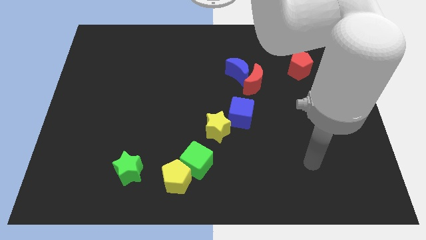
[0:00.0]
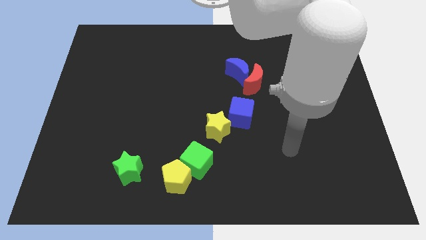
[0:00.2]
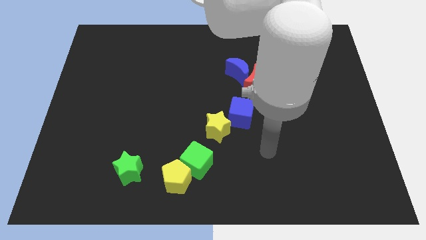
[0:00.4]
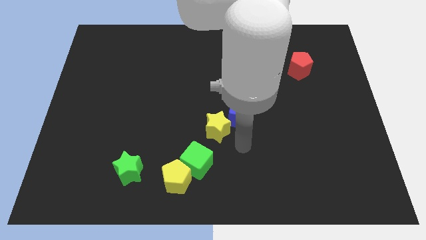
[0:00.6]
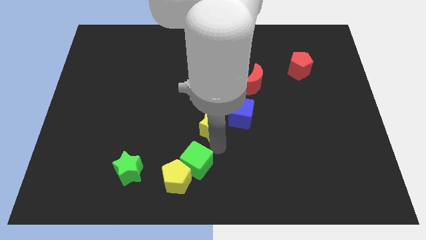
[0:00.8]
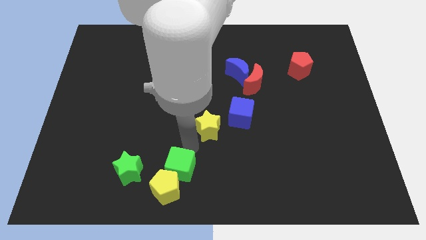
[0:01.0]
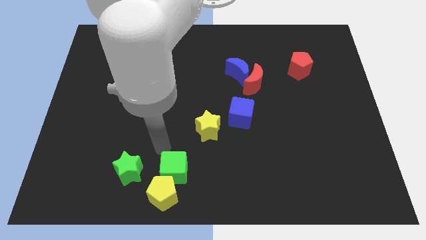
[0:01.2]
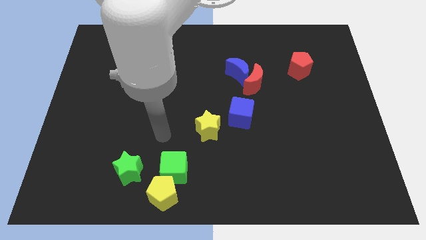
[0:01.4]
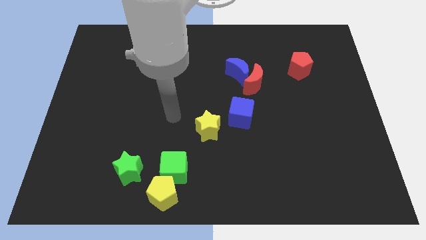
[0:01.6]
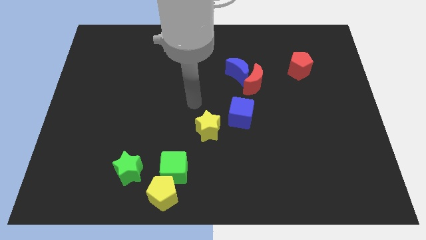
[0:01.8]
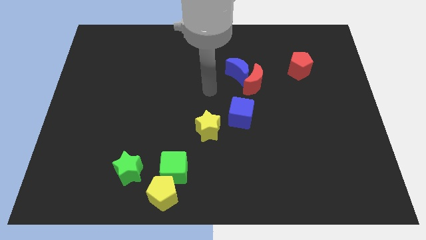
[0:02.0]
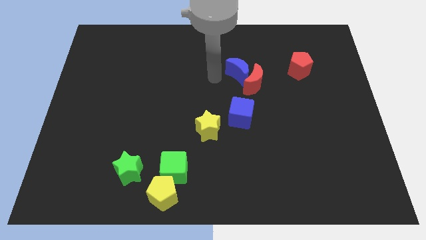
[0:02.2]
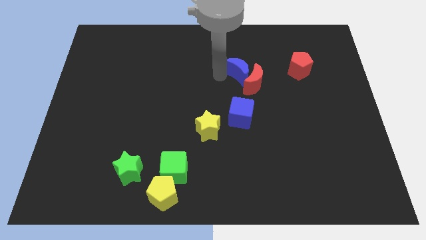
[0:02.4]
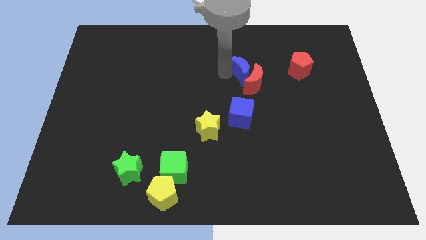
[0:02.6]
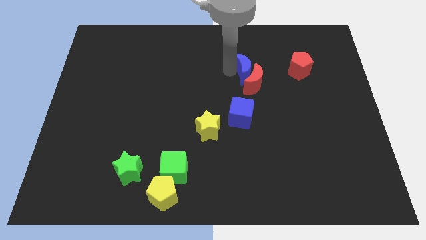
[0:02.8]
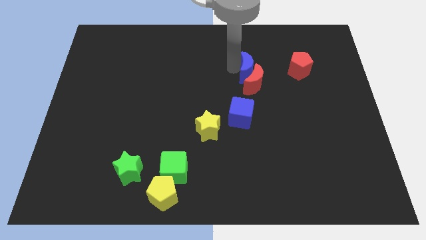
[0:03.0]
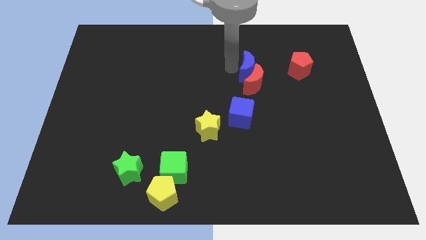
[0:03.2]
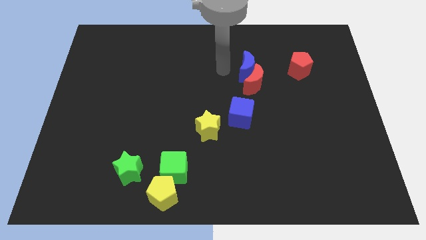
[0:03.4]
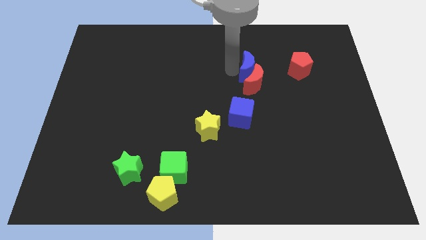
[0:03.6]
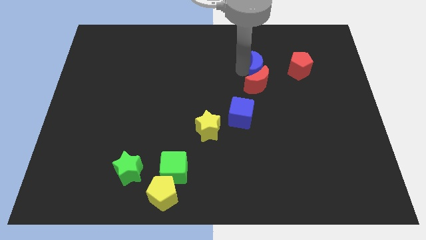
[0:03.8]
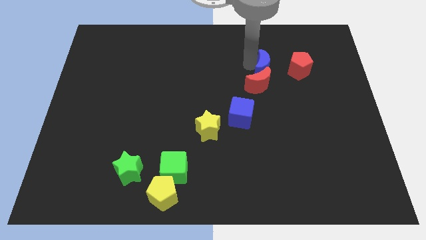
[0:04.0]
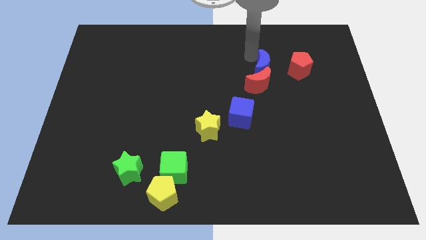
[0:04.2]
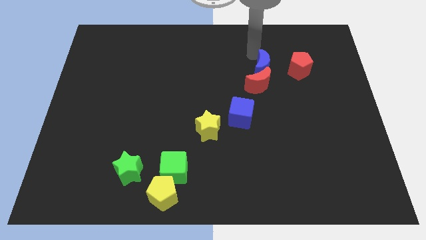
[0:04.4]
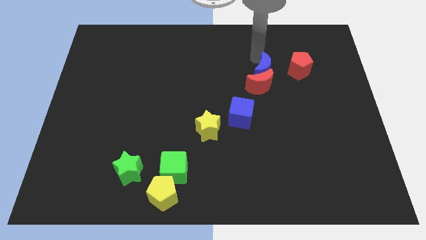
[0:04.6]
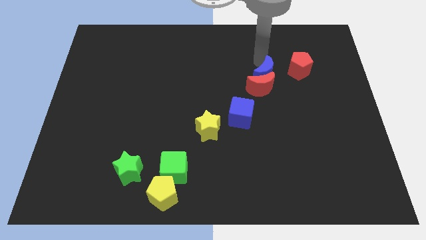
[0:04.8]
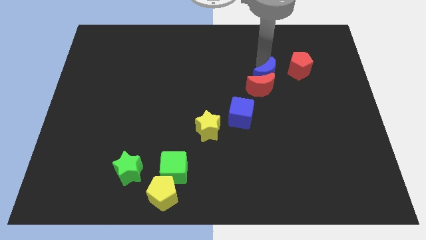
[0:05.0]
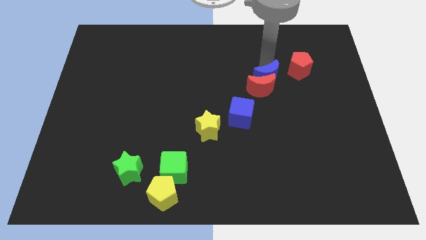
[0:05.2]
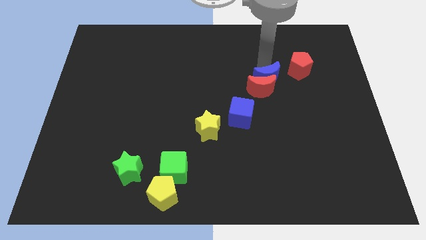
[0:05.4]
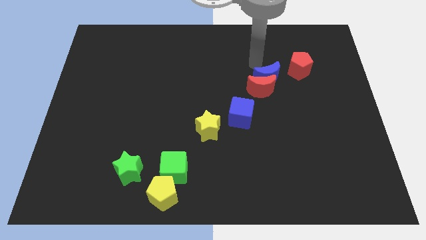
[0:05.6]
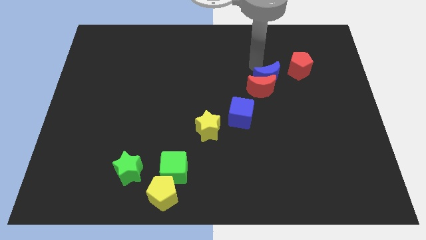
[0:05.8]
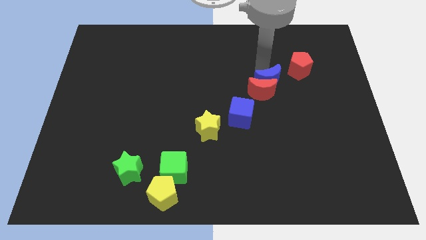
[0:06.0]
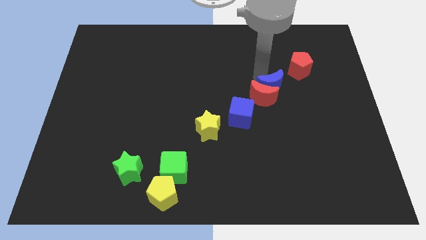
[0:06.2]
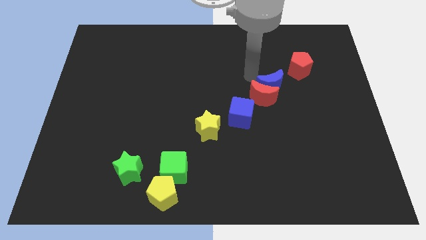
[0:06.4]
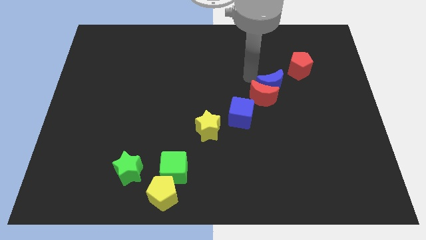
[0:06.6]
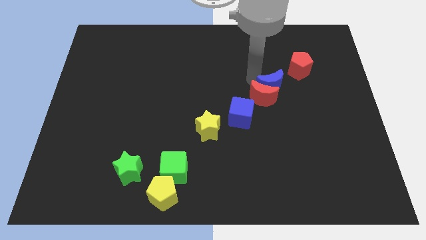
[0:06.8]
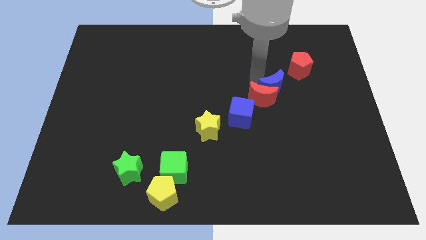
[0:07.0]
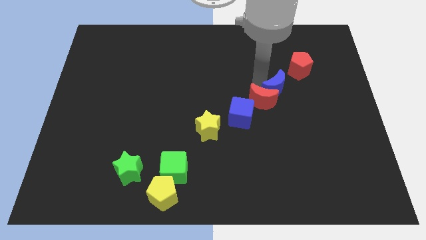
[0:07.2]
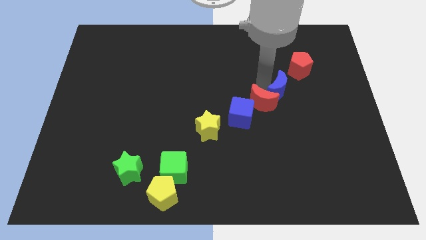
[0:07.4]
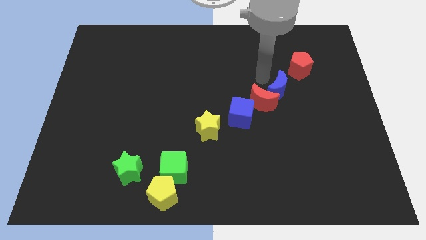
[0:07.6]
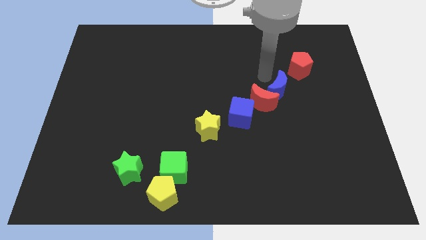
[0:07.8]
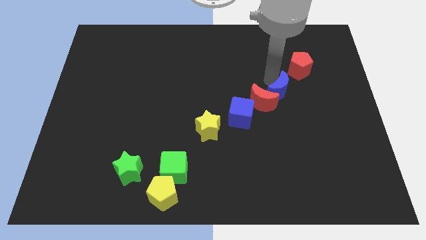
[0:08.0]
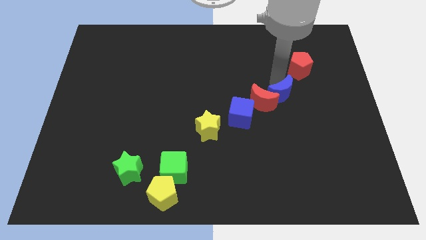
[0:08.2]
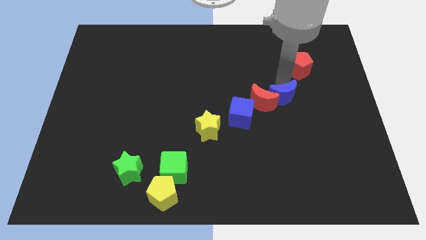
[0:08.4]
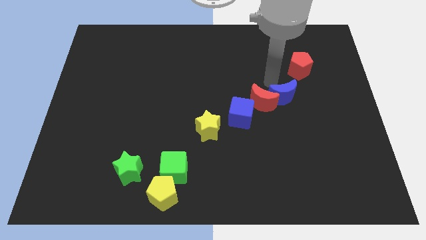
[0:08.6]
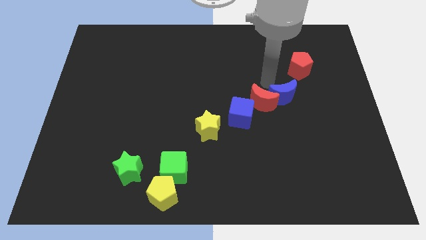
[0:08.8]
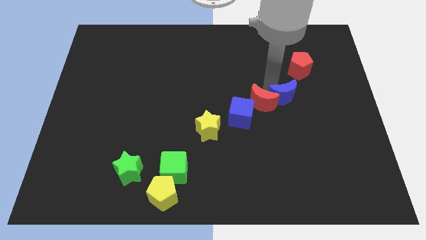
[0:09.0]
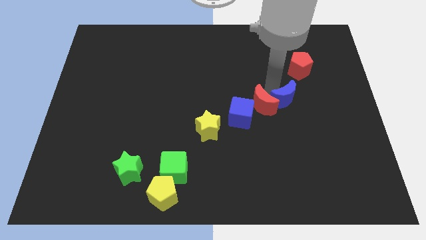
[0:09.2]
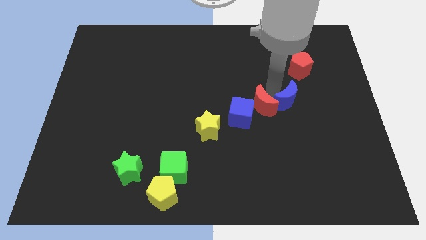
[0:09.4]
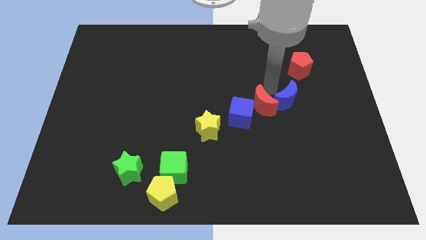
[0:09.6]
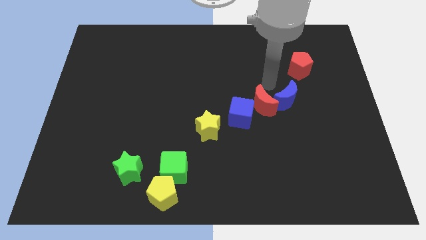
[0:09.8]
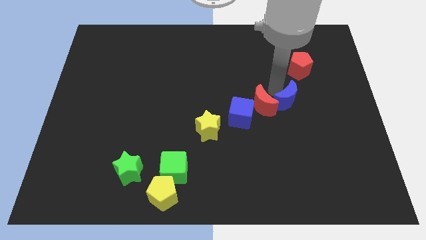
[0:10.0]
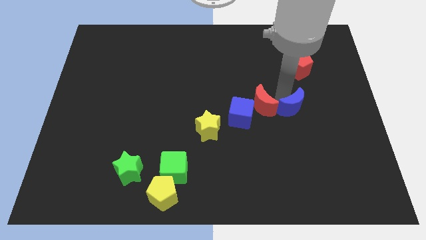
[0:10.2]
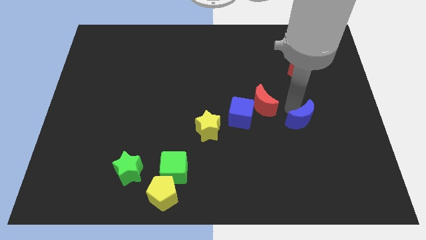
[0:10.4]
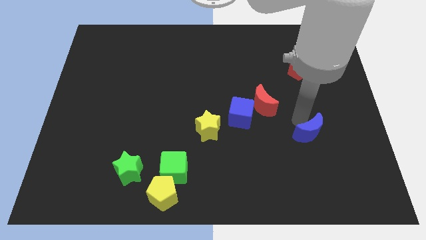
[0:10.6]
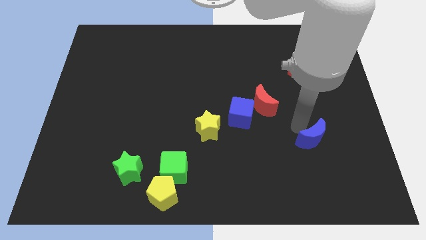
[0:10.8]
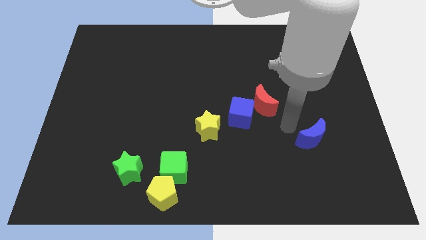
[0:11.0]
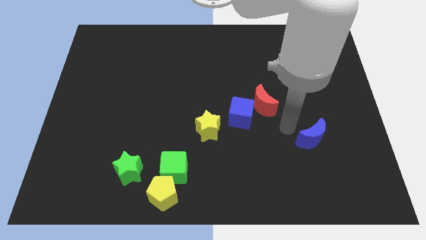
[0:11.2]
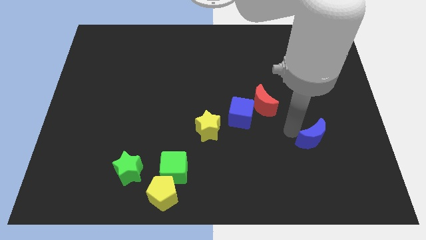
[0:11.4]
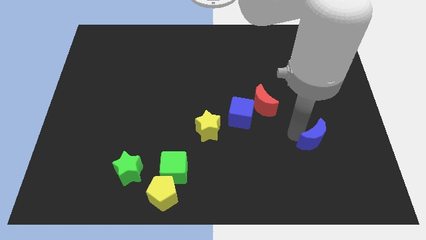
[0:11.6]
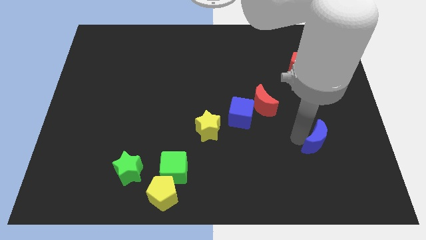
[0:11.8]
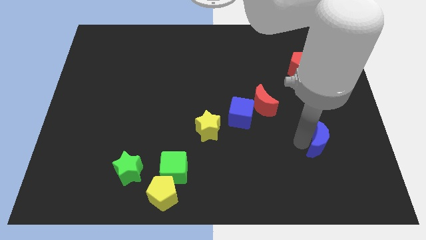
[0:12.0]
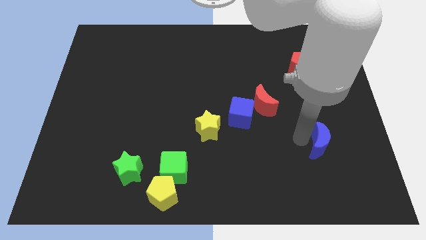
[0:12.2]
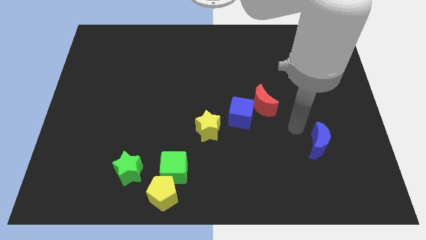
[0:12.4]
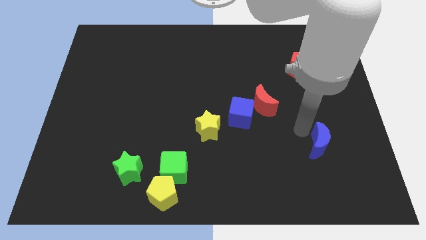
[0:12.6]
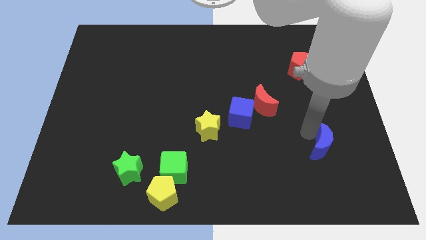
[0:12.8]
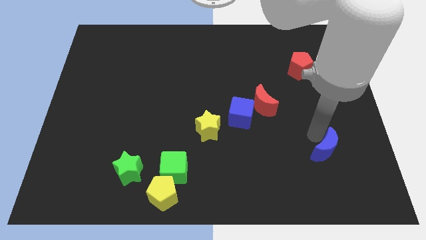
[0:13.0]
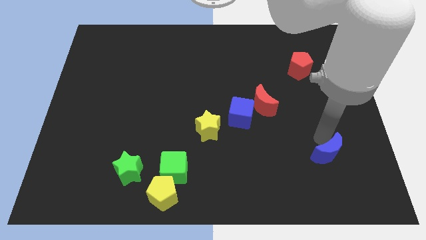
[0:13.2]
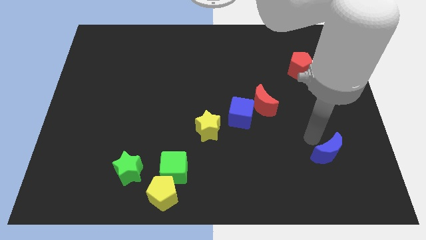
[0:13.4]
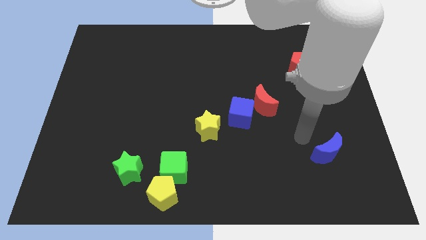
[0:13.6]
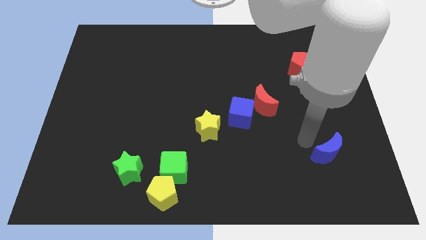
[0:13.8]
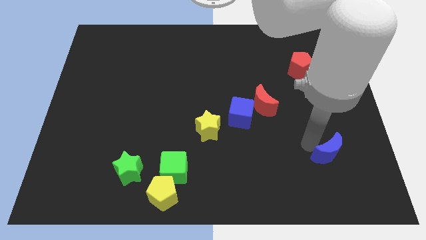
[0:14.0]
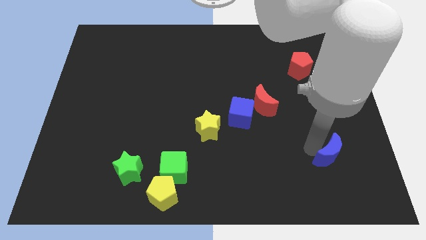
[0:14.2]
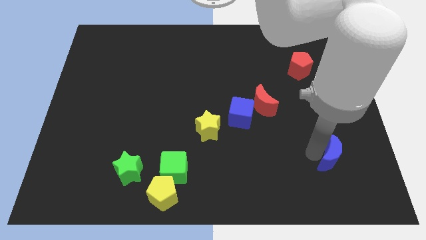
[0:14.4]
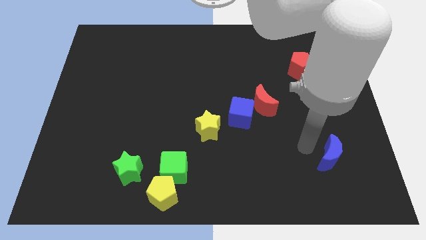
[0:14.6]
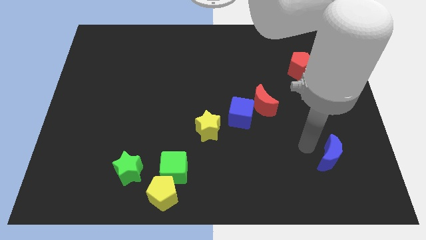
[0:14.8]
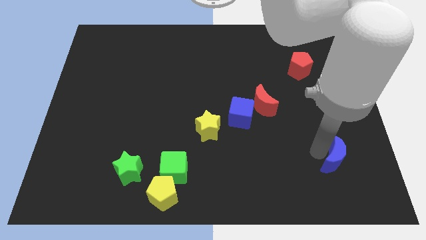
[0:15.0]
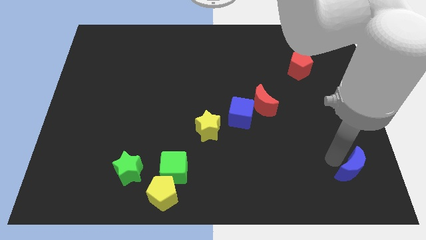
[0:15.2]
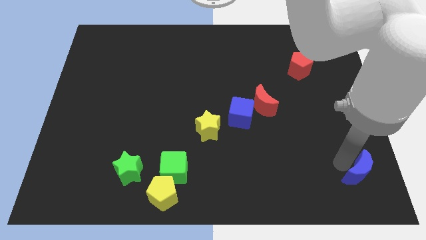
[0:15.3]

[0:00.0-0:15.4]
move the blue moon to the bottom right corner
